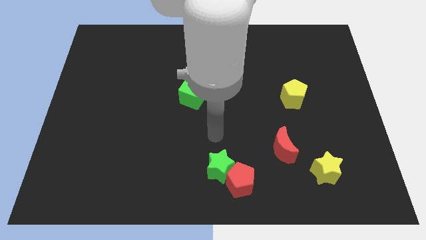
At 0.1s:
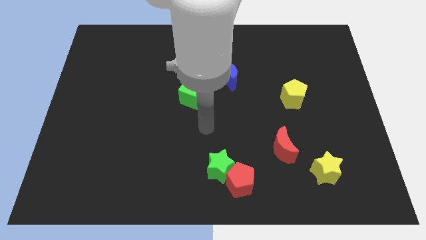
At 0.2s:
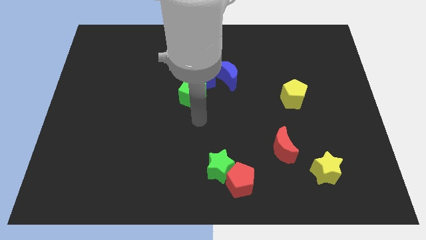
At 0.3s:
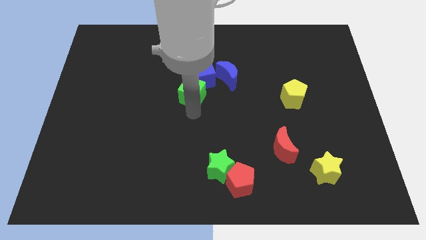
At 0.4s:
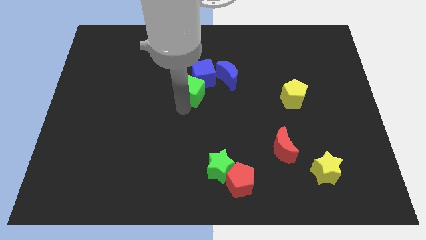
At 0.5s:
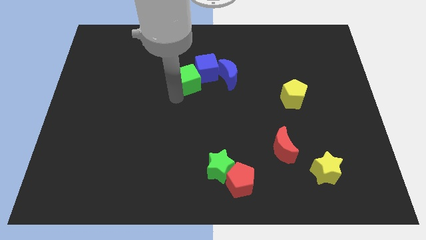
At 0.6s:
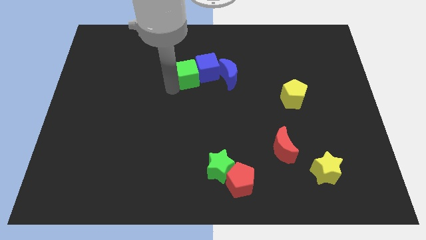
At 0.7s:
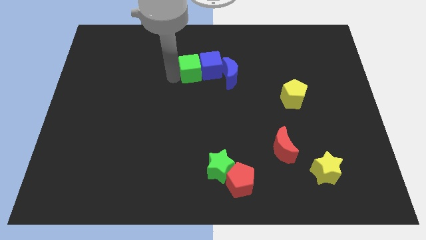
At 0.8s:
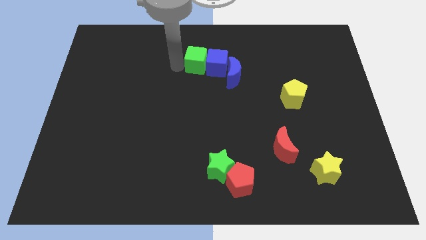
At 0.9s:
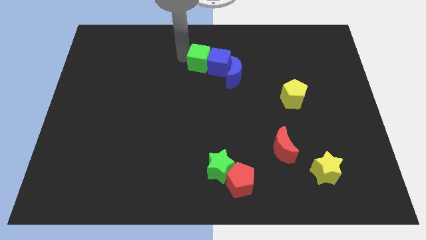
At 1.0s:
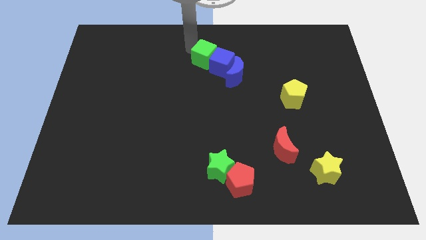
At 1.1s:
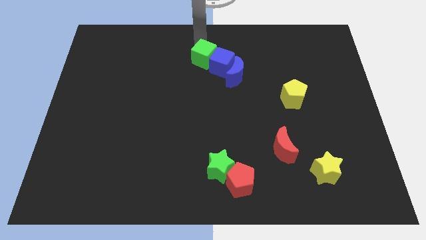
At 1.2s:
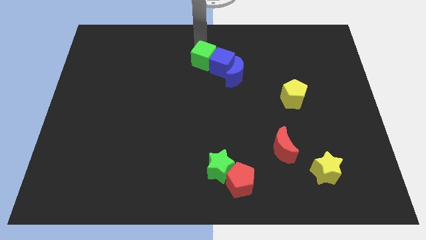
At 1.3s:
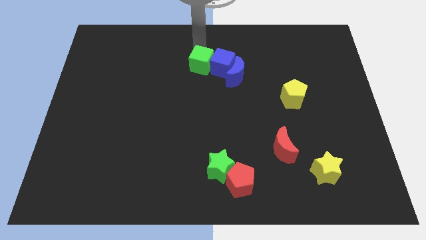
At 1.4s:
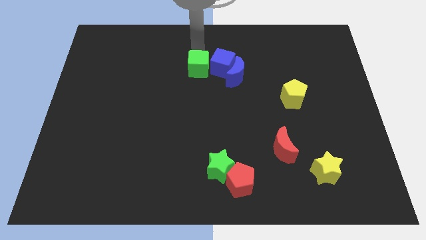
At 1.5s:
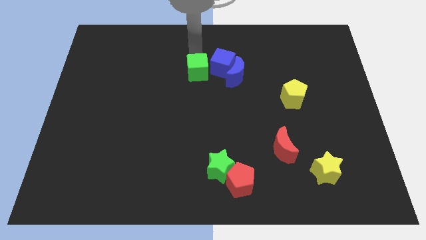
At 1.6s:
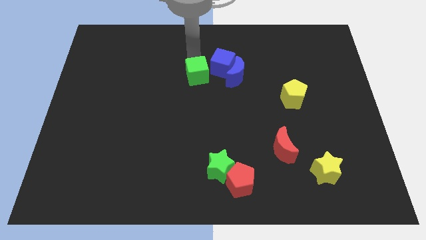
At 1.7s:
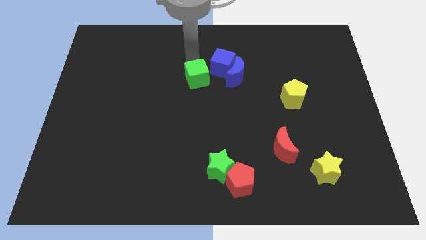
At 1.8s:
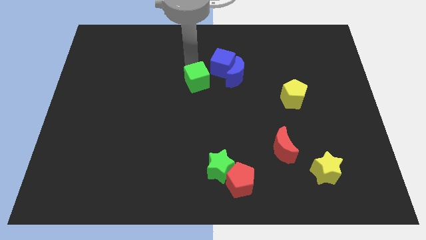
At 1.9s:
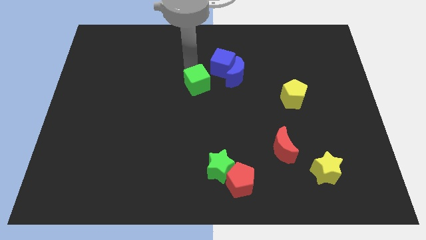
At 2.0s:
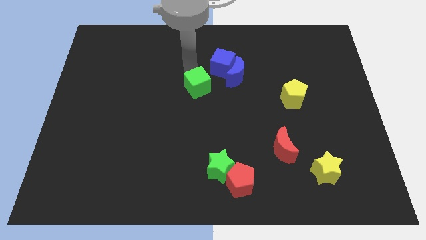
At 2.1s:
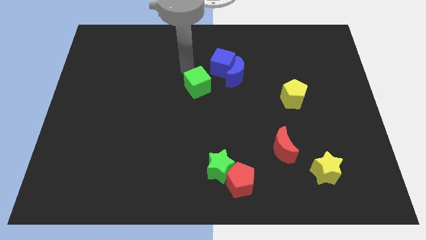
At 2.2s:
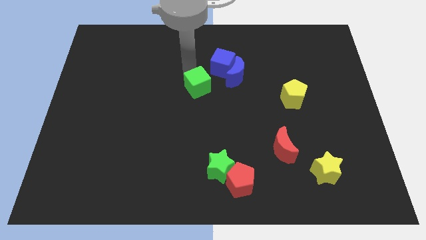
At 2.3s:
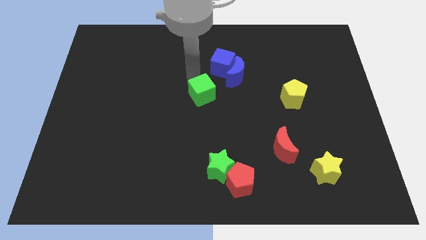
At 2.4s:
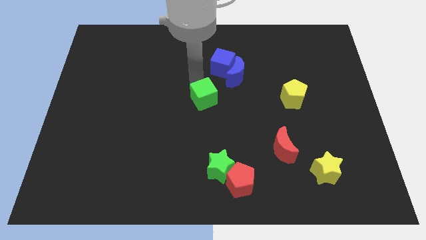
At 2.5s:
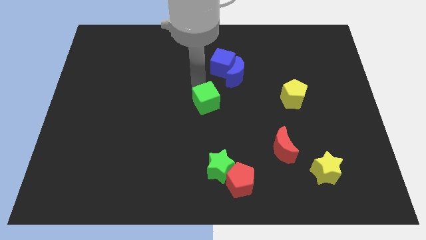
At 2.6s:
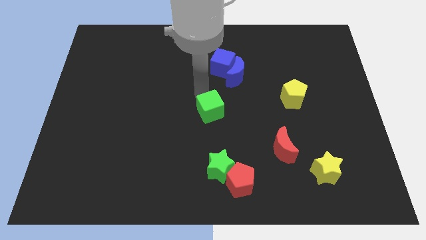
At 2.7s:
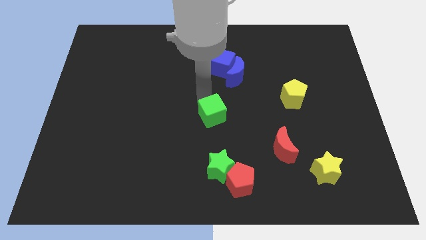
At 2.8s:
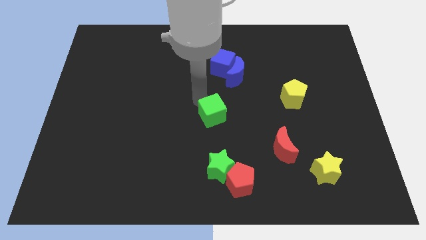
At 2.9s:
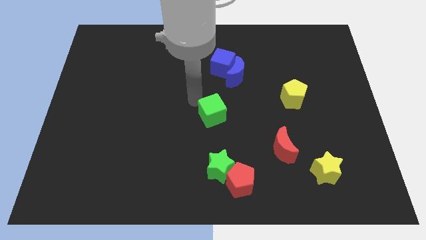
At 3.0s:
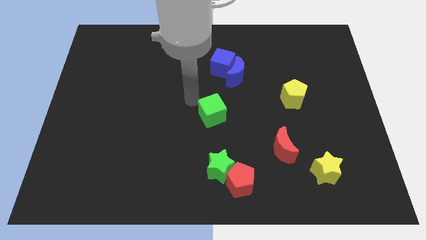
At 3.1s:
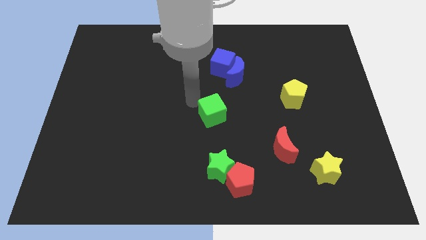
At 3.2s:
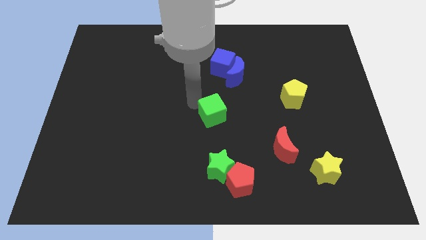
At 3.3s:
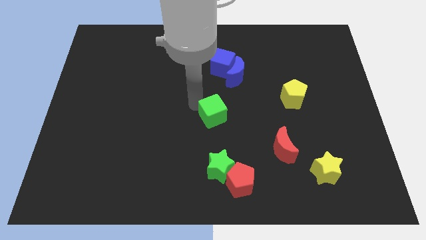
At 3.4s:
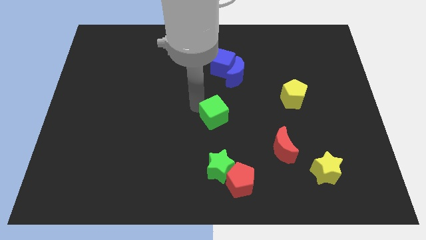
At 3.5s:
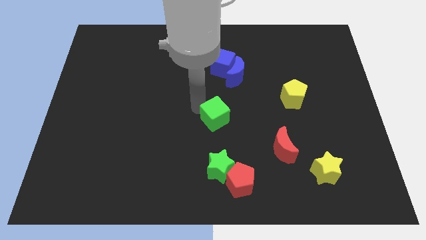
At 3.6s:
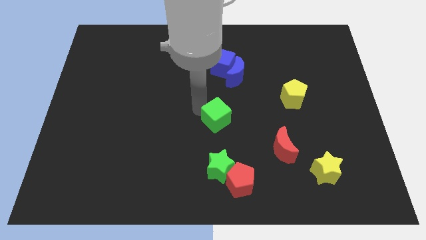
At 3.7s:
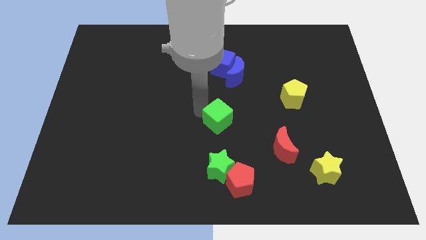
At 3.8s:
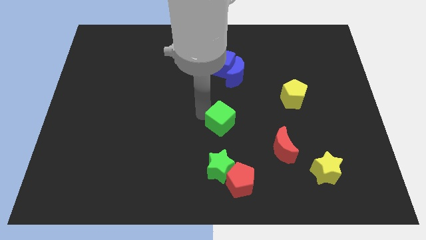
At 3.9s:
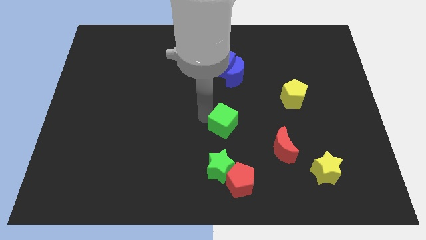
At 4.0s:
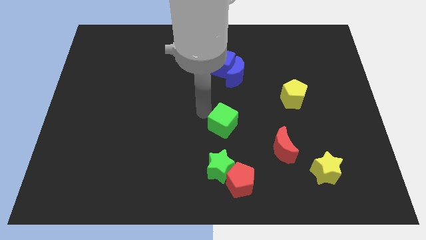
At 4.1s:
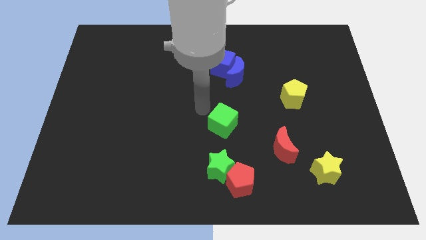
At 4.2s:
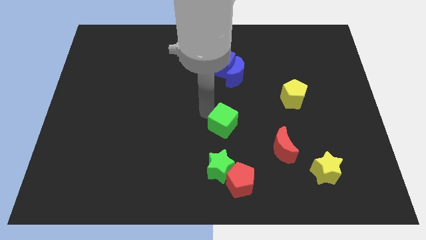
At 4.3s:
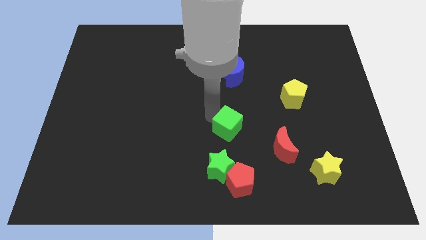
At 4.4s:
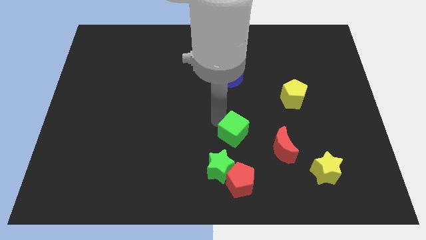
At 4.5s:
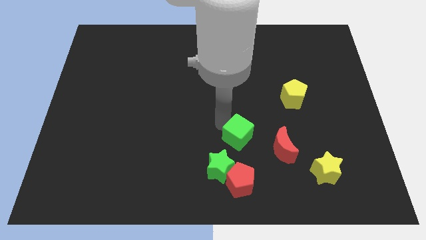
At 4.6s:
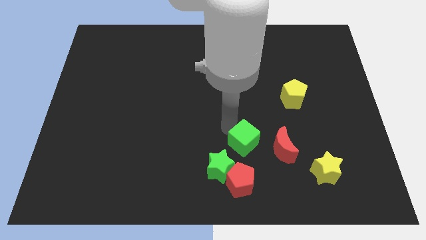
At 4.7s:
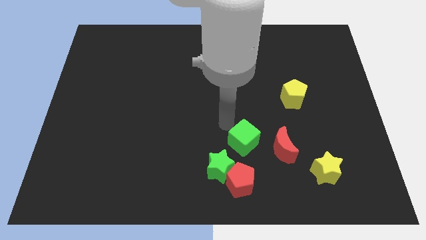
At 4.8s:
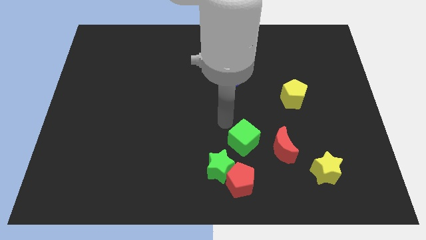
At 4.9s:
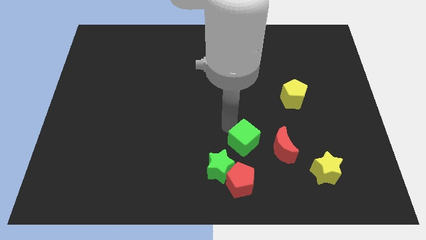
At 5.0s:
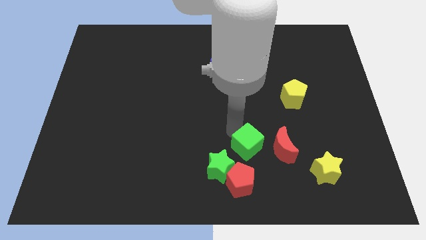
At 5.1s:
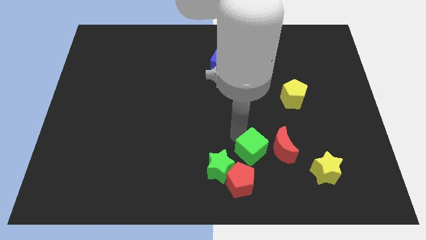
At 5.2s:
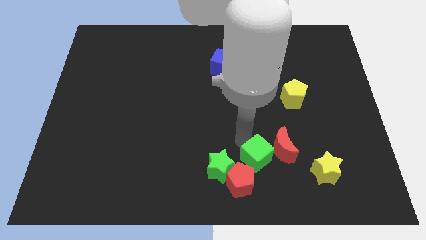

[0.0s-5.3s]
slide the green cube to the left of the yellow star
